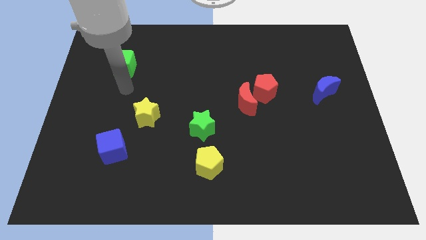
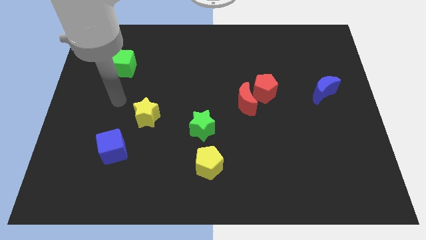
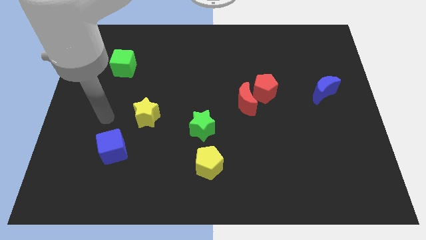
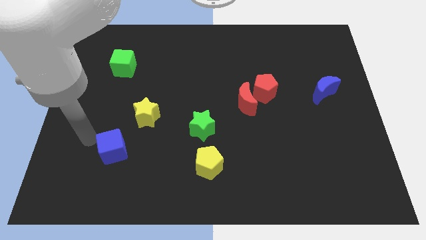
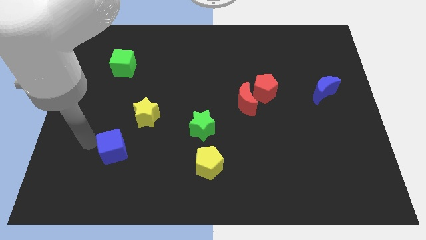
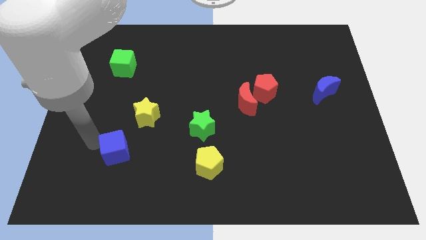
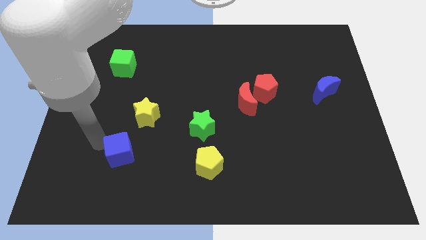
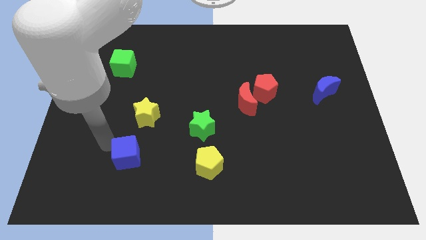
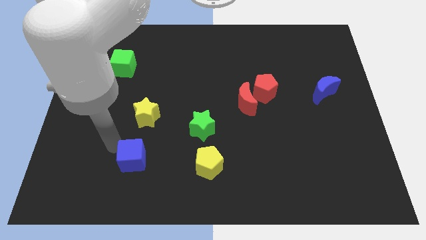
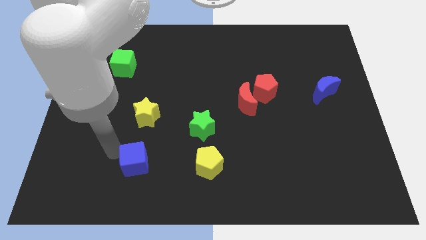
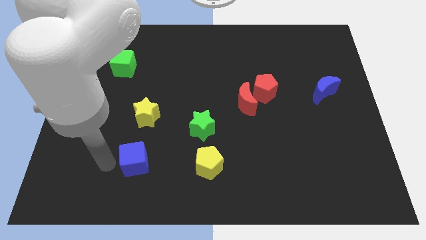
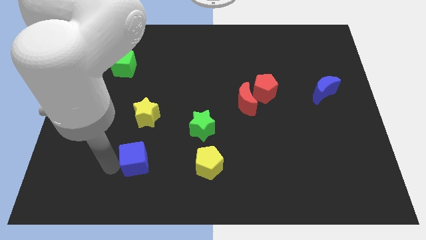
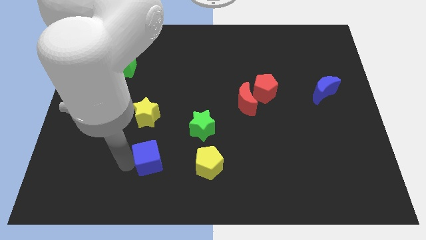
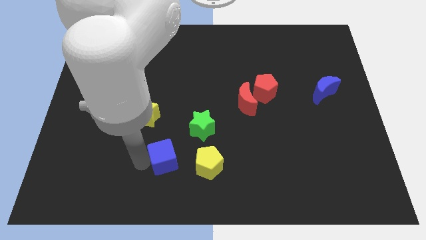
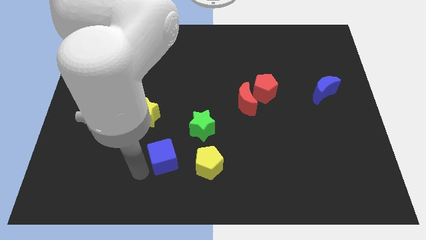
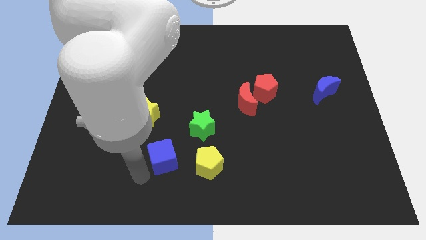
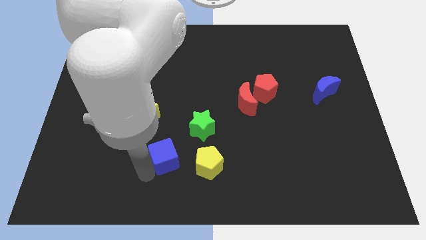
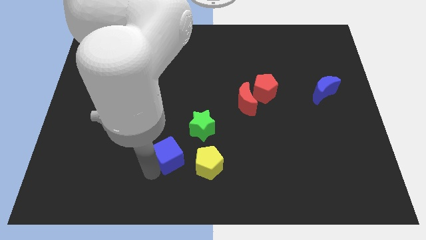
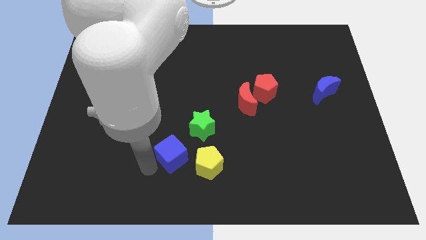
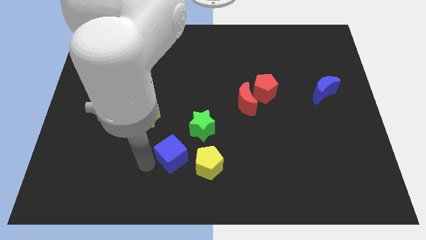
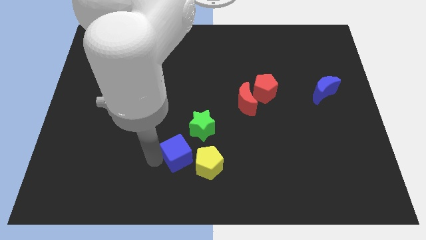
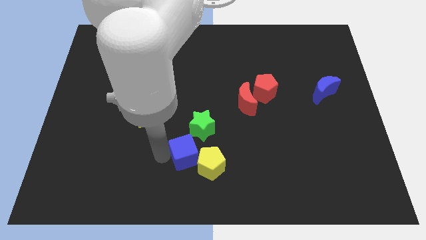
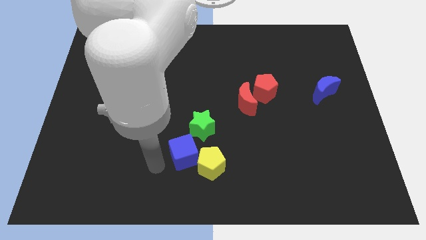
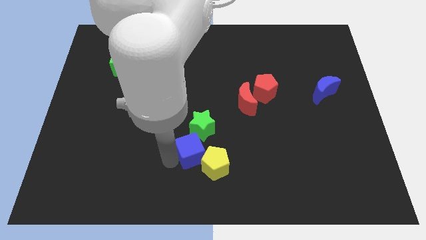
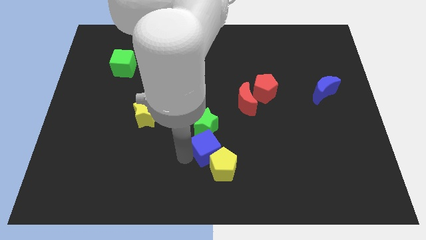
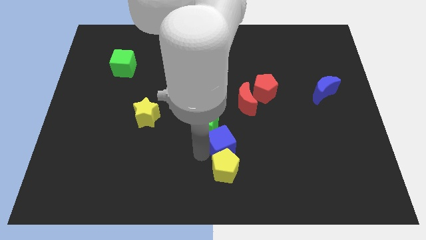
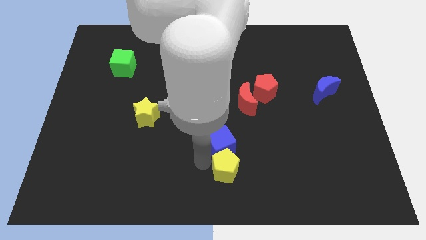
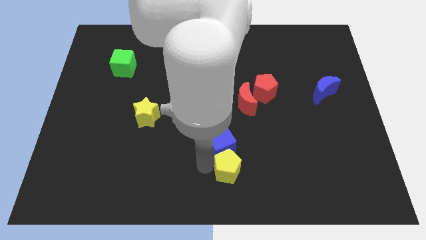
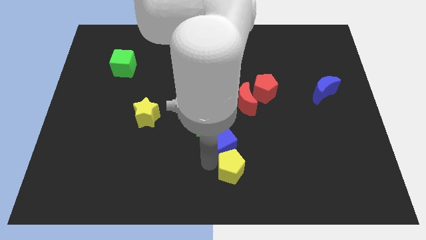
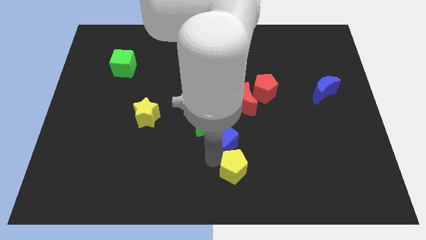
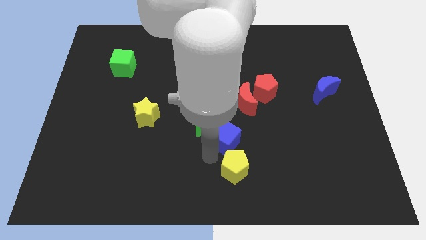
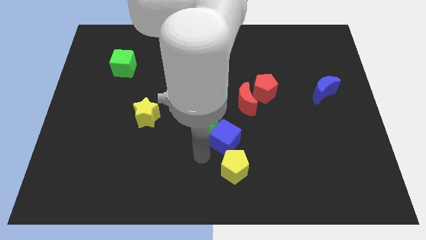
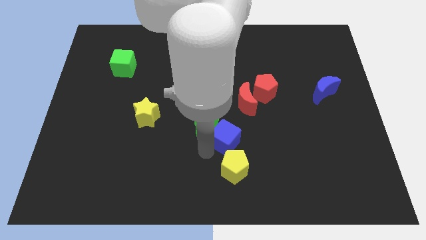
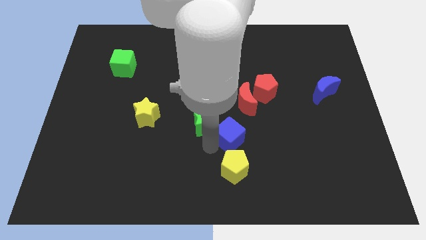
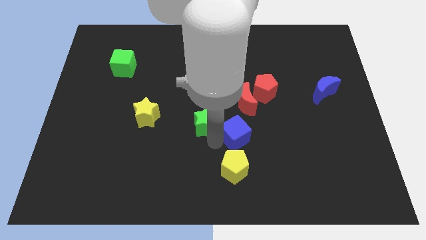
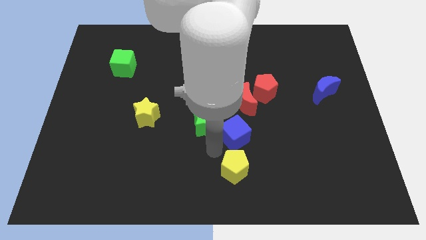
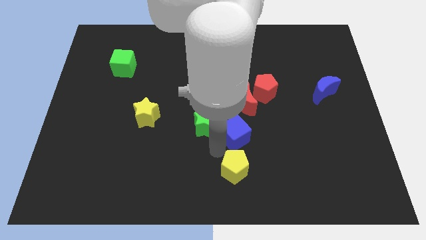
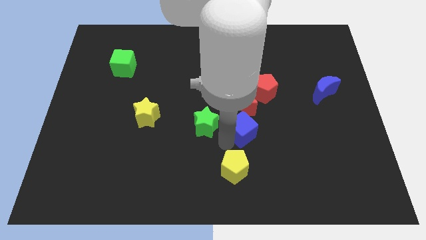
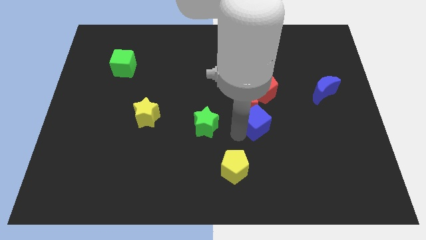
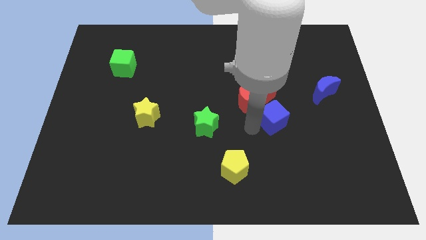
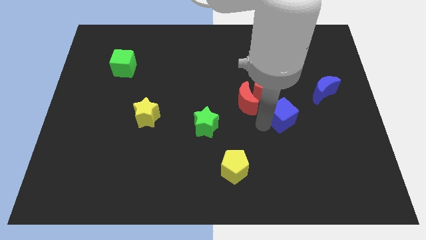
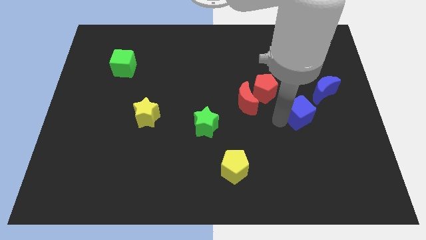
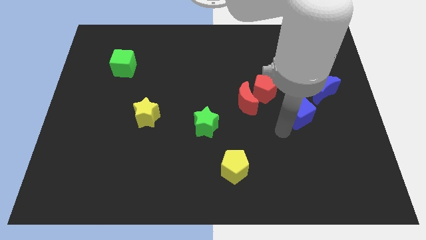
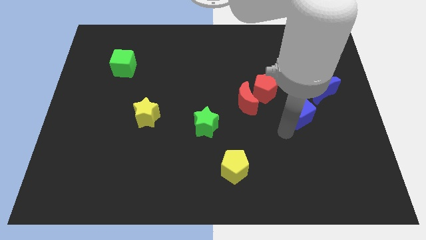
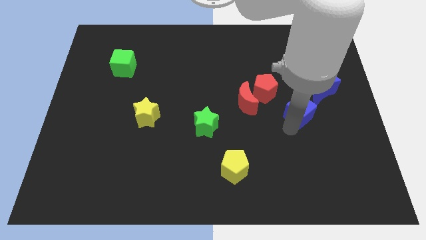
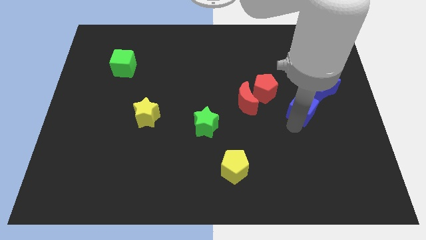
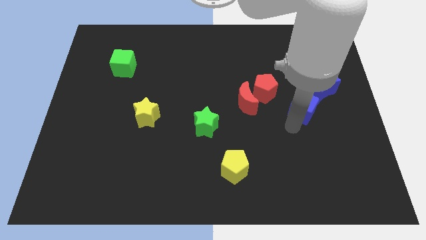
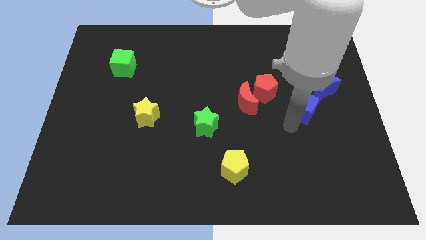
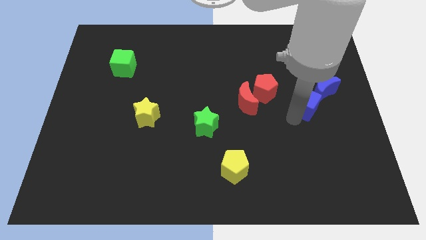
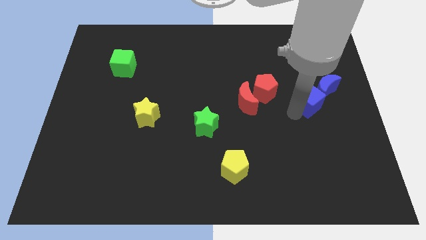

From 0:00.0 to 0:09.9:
slide the blue cube next to the blue moon

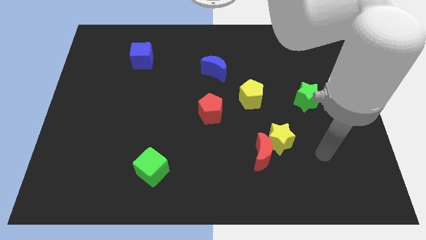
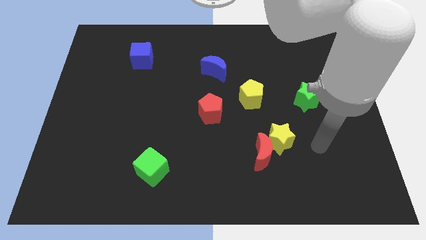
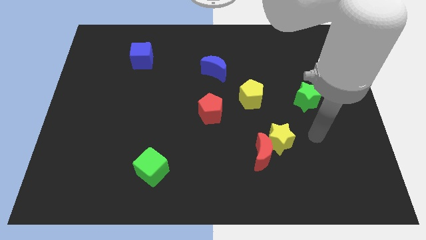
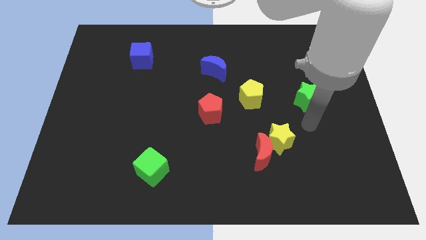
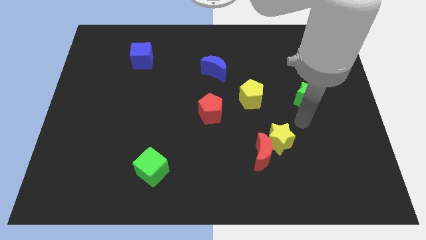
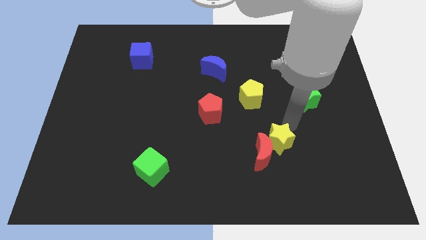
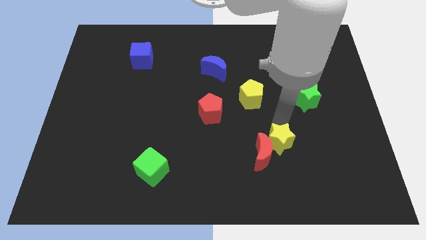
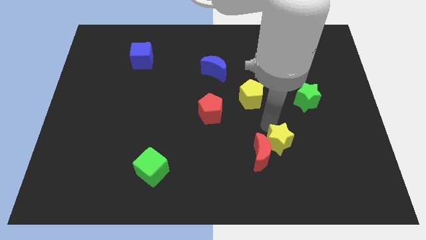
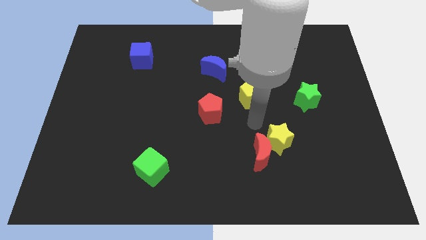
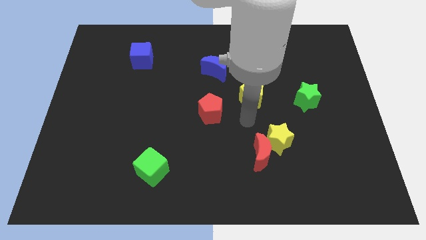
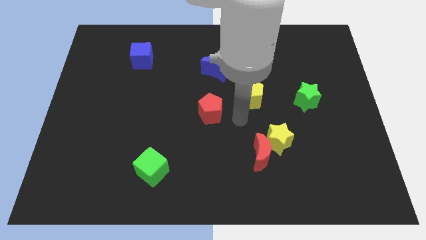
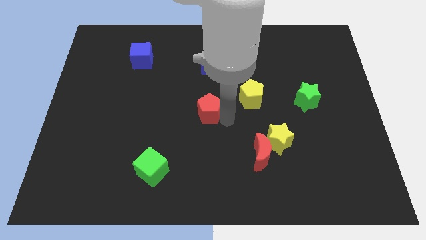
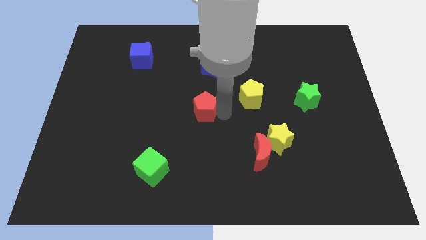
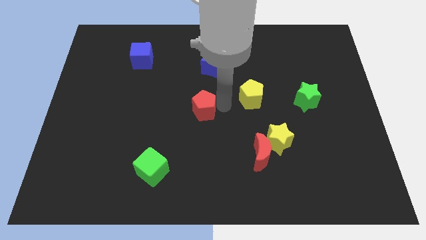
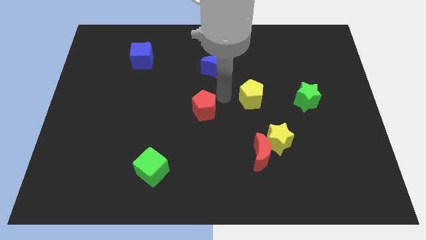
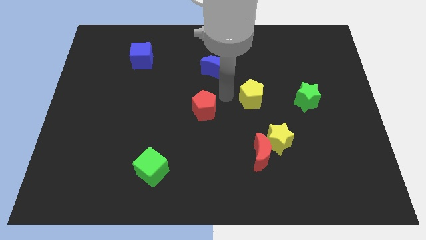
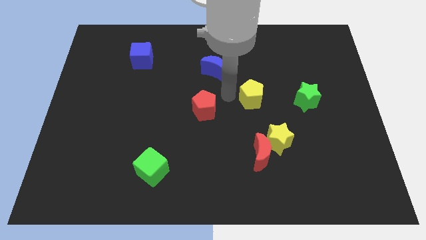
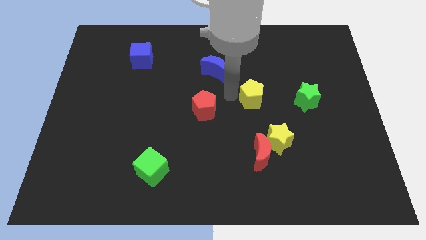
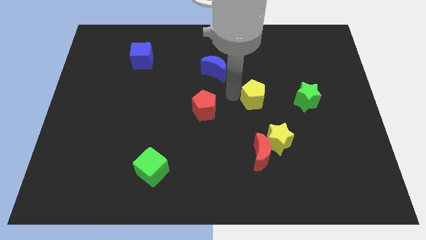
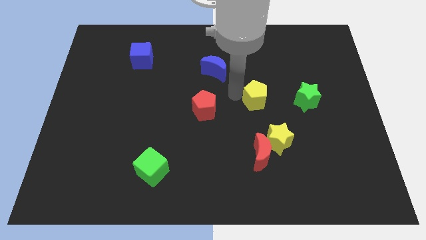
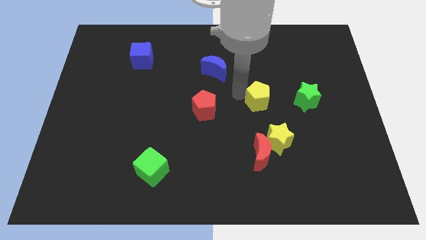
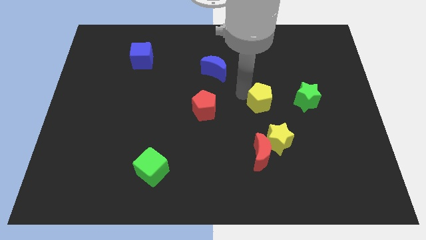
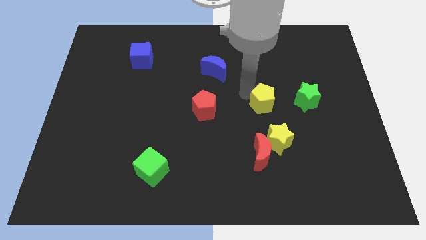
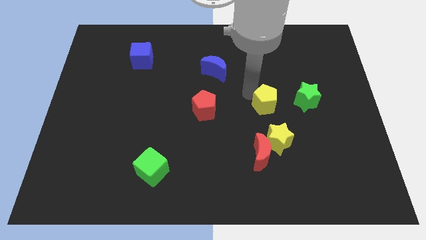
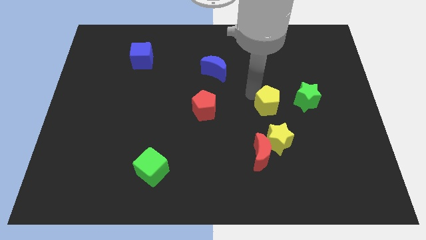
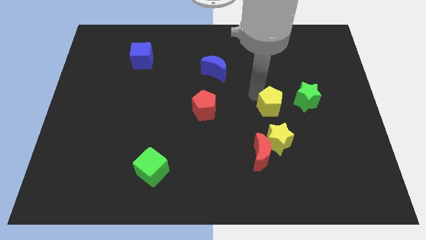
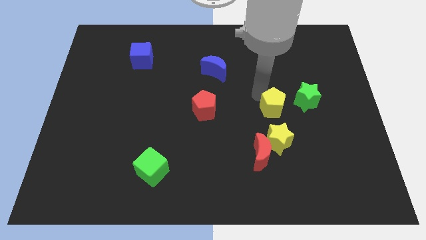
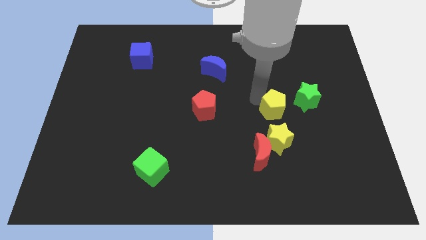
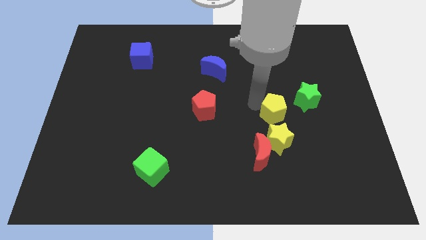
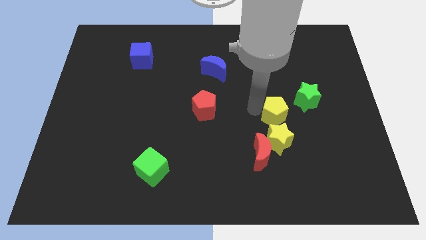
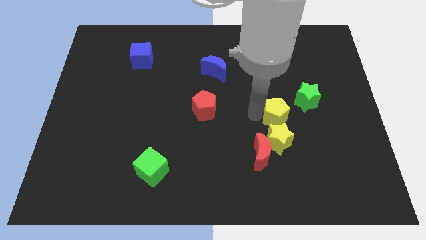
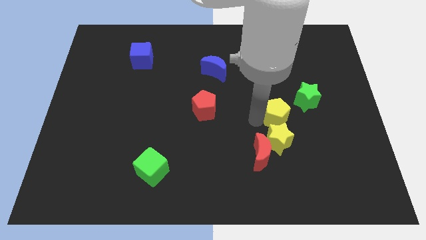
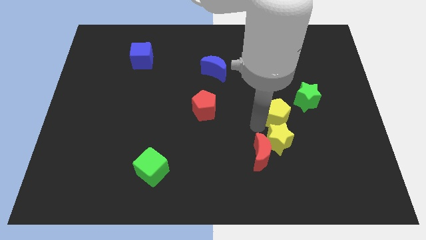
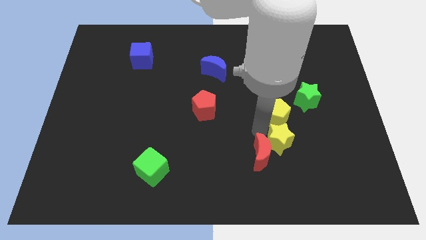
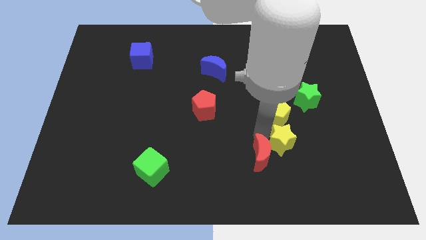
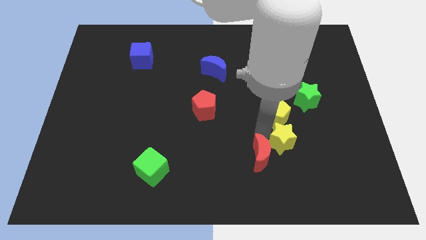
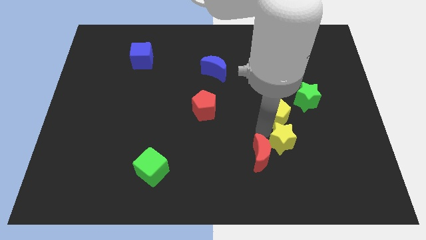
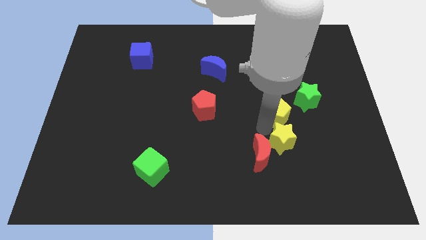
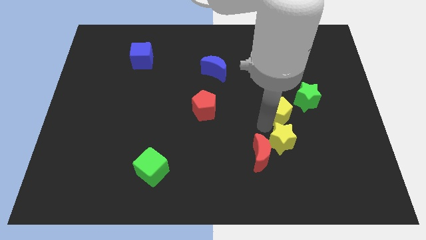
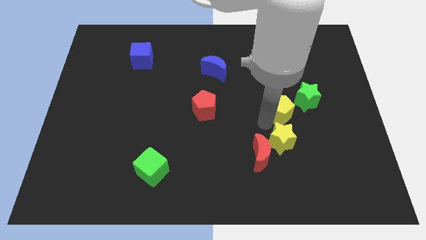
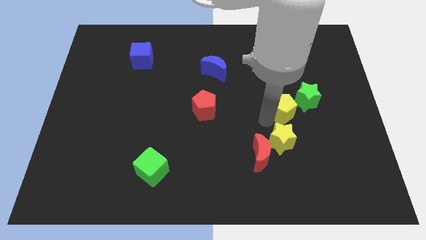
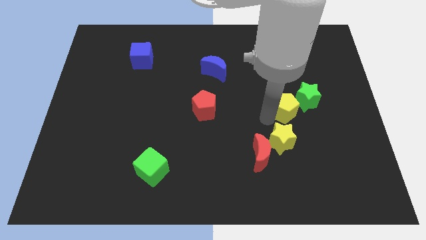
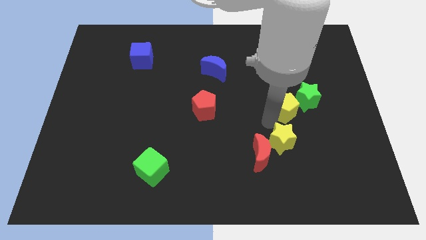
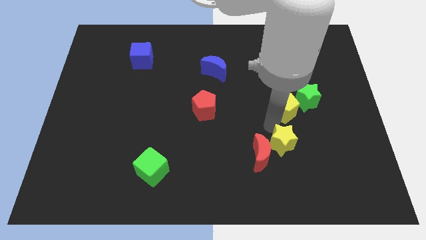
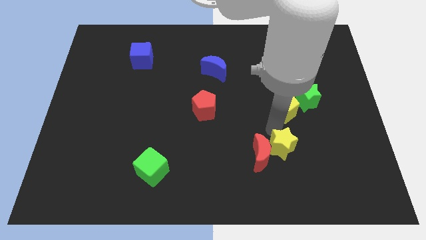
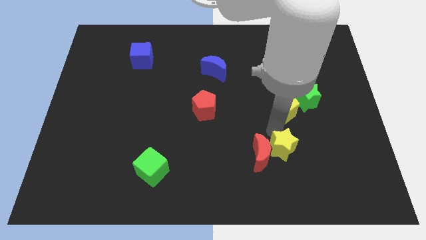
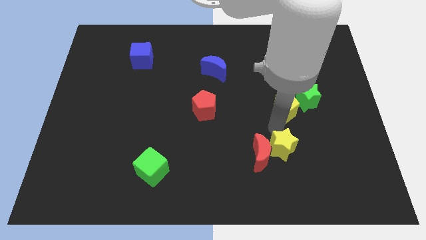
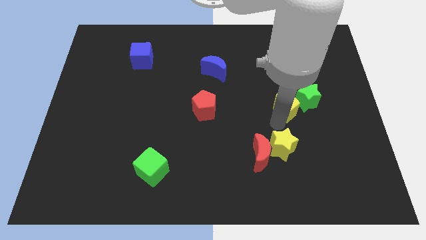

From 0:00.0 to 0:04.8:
put the yellow pentagon to the green star
